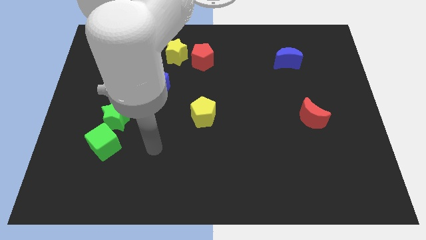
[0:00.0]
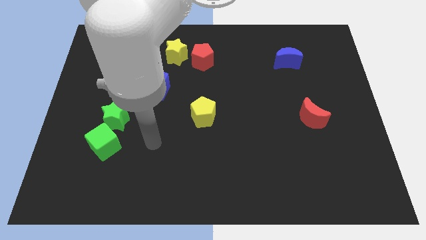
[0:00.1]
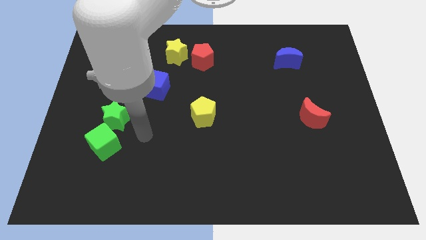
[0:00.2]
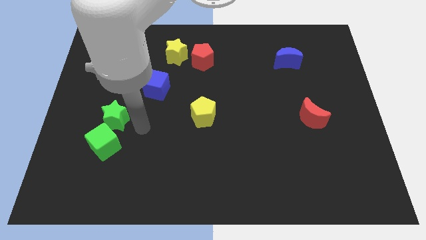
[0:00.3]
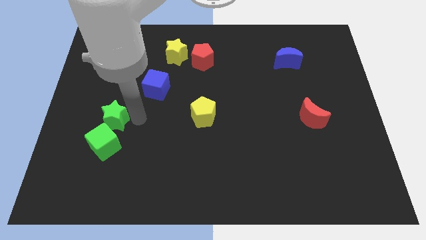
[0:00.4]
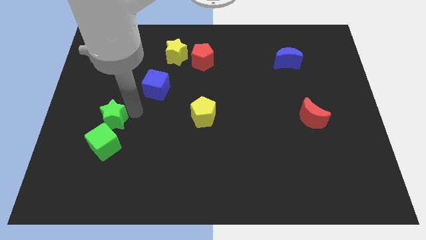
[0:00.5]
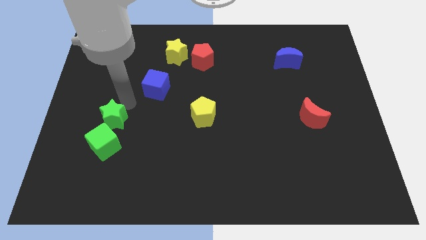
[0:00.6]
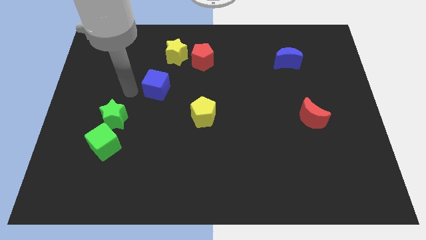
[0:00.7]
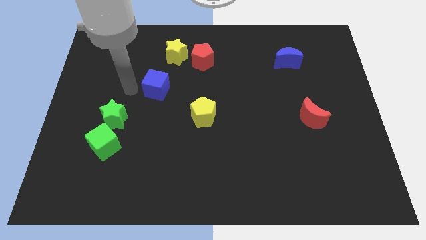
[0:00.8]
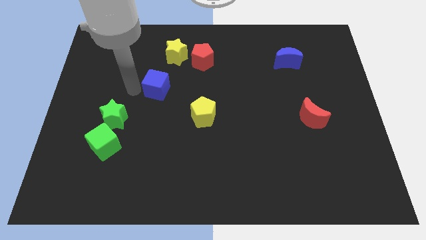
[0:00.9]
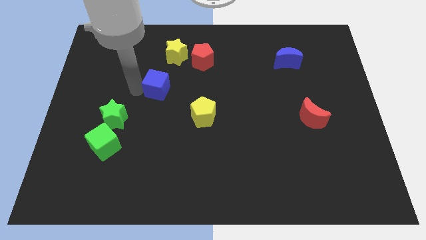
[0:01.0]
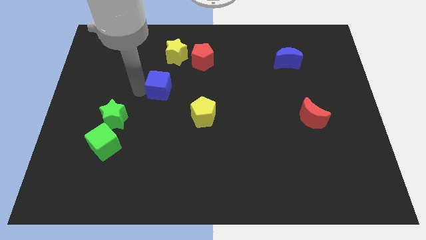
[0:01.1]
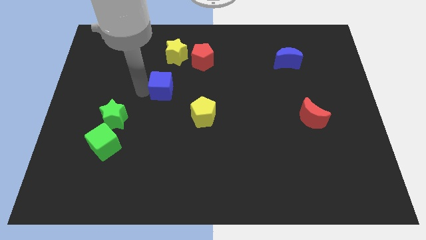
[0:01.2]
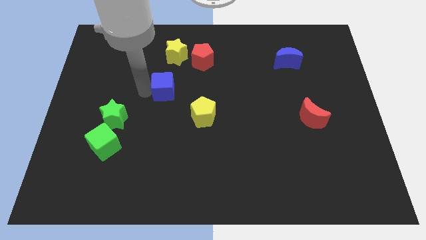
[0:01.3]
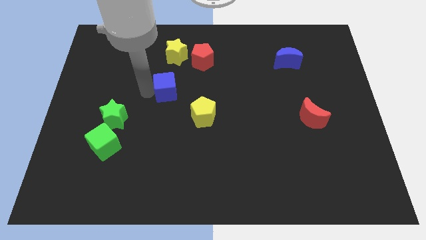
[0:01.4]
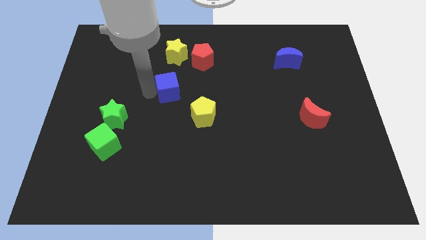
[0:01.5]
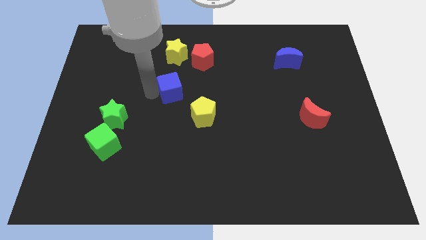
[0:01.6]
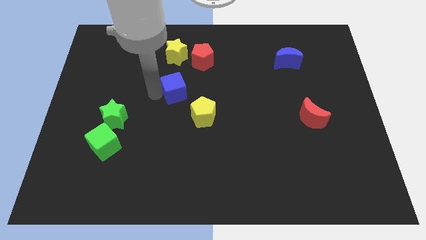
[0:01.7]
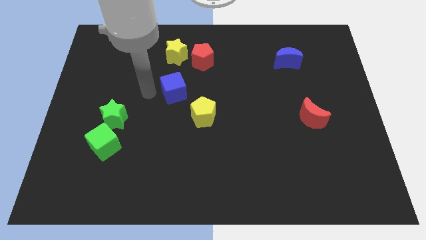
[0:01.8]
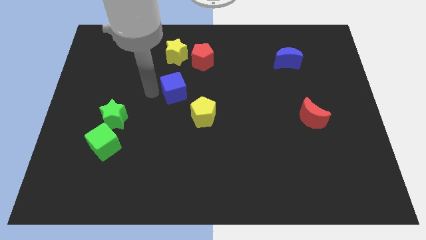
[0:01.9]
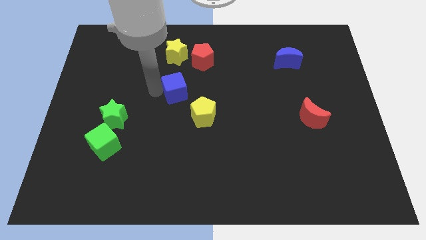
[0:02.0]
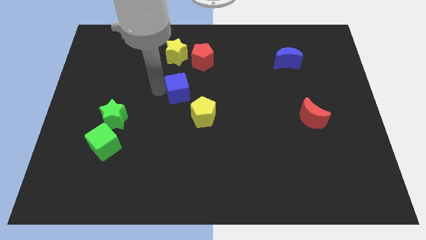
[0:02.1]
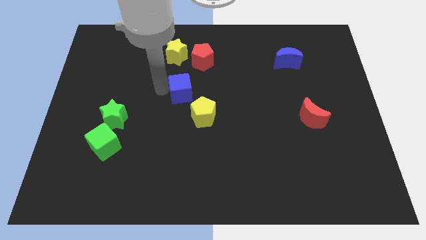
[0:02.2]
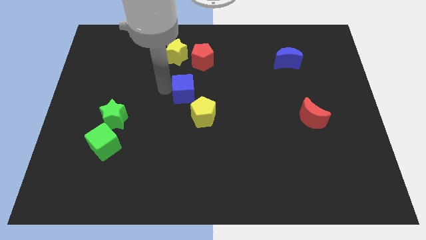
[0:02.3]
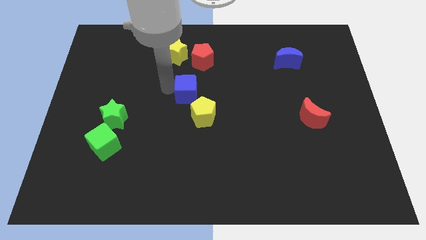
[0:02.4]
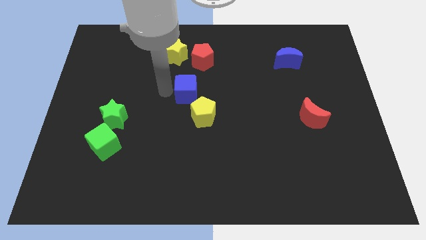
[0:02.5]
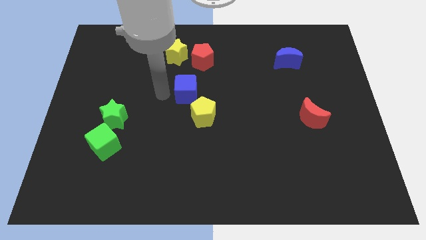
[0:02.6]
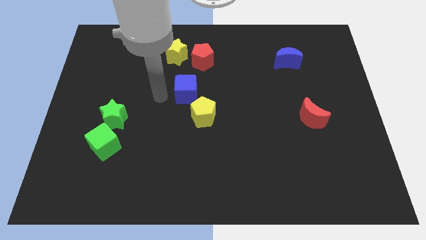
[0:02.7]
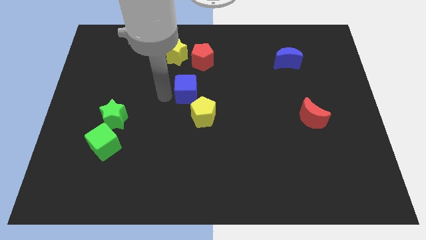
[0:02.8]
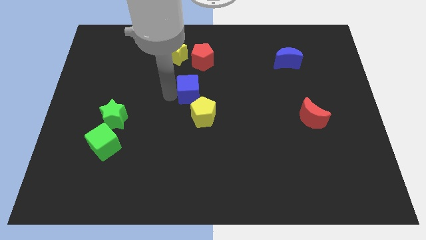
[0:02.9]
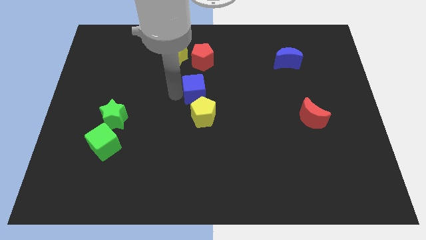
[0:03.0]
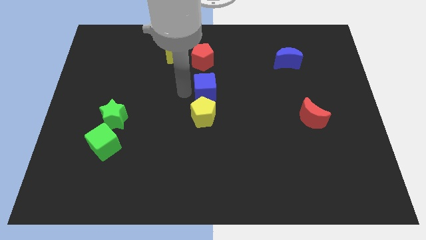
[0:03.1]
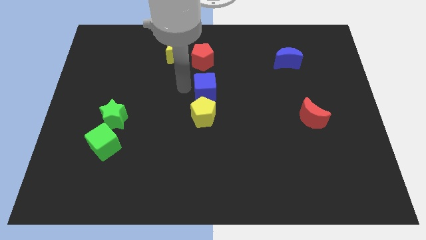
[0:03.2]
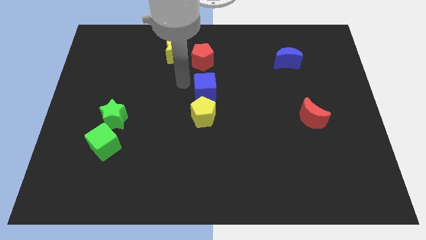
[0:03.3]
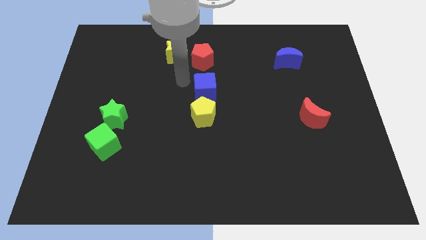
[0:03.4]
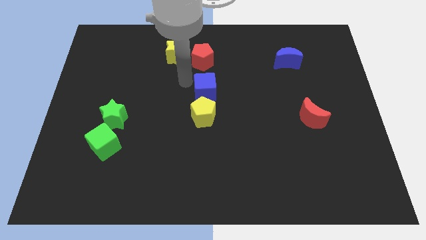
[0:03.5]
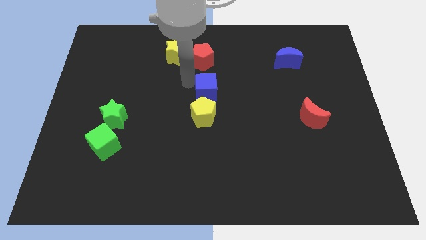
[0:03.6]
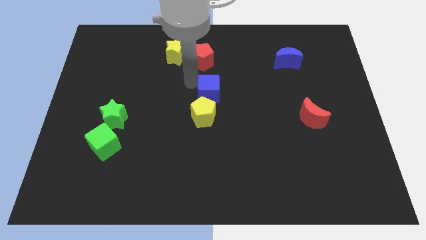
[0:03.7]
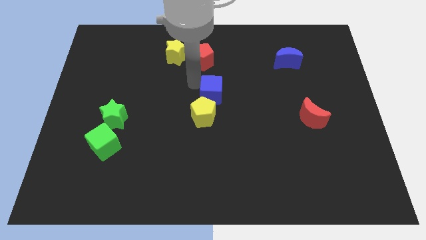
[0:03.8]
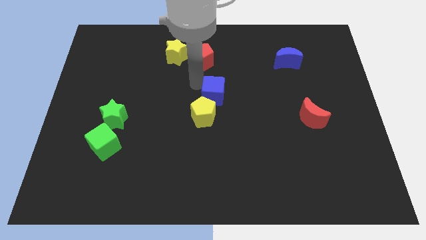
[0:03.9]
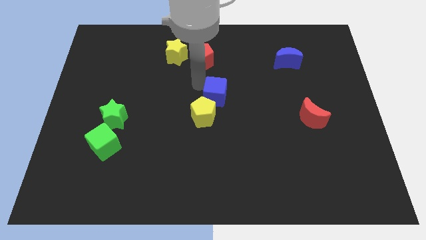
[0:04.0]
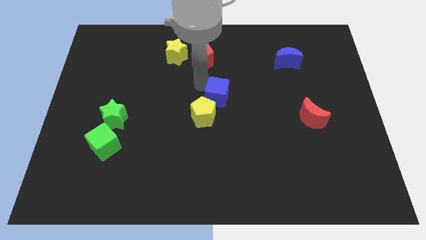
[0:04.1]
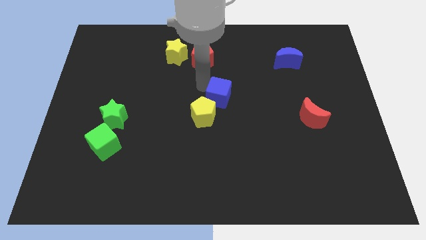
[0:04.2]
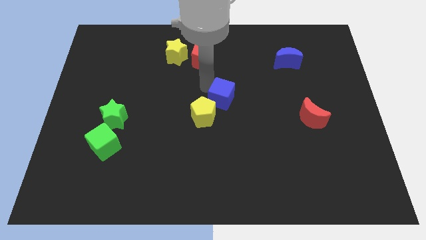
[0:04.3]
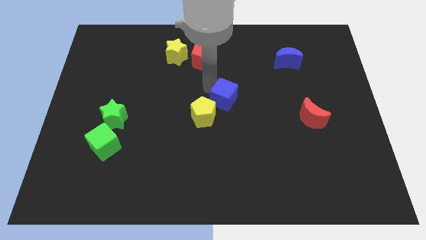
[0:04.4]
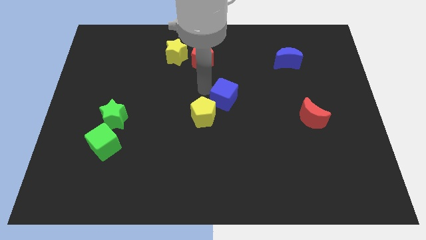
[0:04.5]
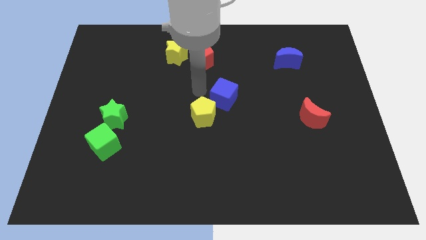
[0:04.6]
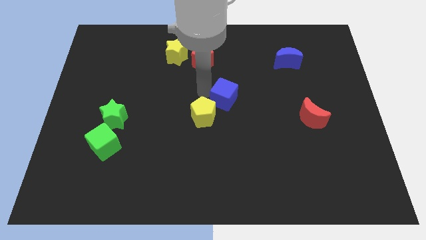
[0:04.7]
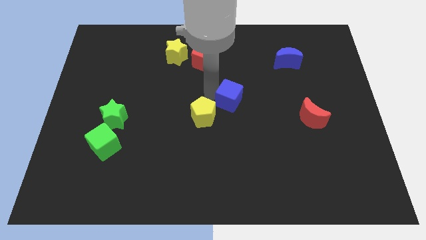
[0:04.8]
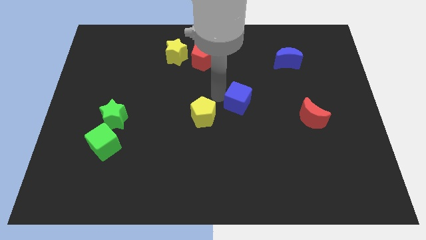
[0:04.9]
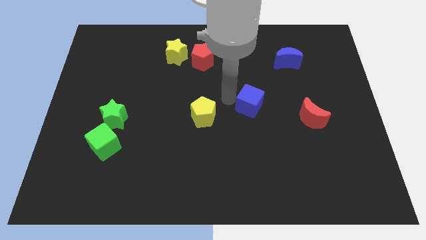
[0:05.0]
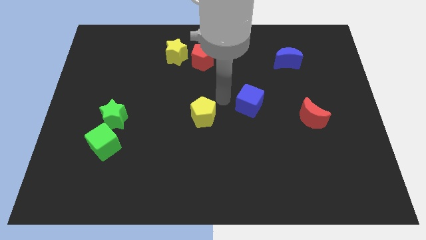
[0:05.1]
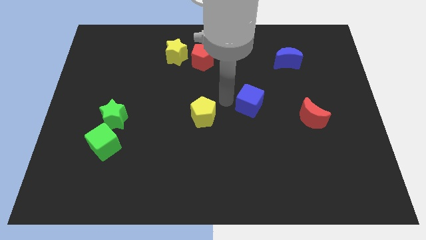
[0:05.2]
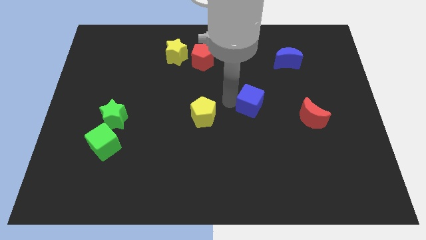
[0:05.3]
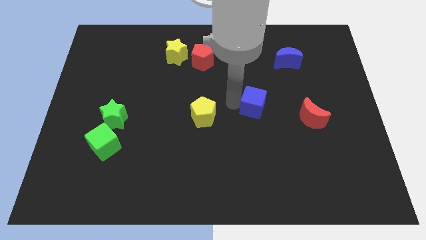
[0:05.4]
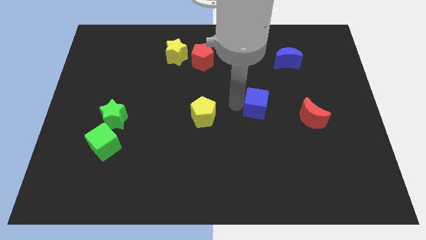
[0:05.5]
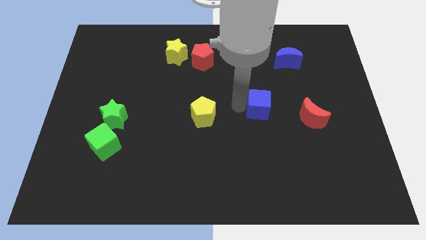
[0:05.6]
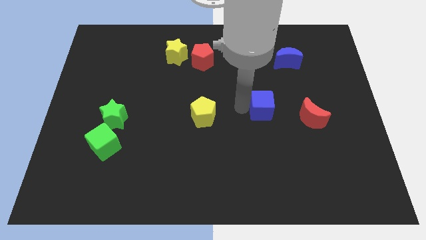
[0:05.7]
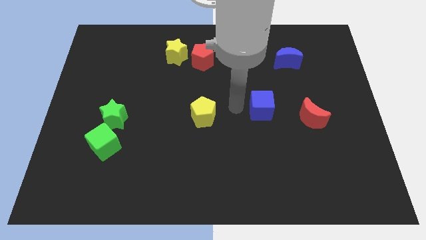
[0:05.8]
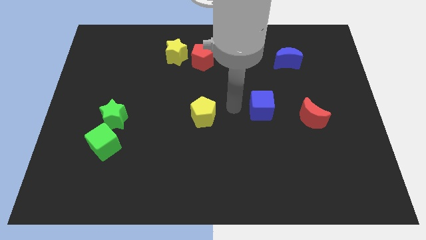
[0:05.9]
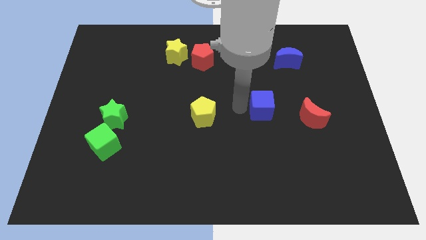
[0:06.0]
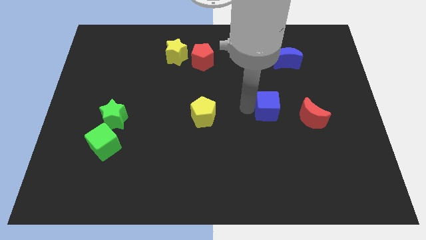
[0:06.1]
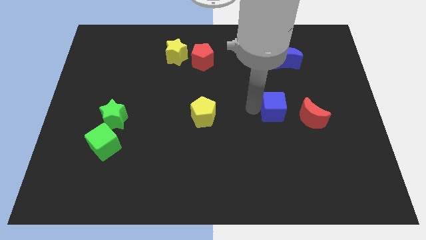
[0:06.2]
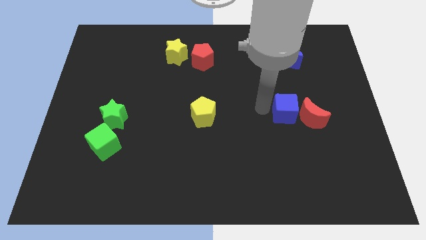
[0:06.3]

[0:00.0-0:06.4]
slide the blue cube next to the red moon
